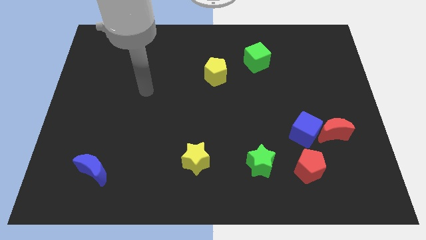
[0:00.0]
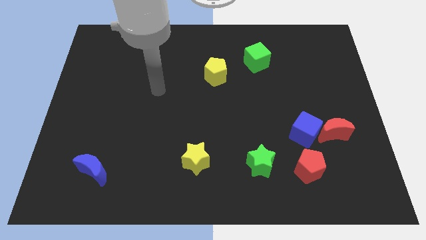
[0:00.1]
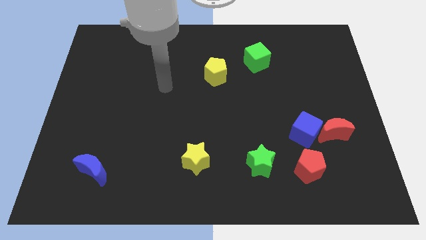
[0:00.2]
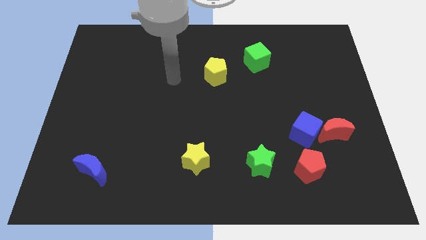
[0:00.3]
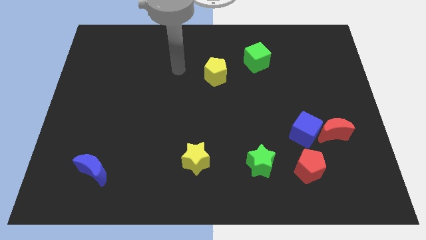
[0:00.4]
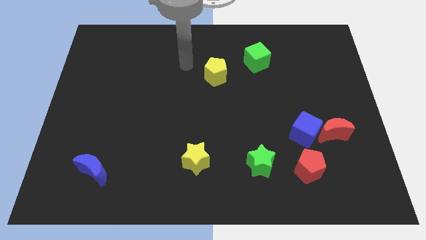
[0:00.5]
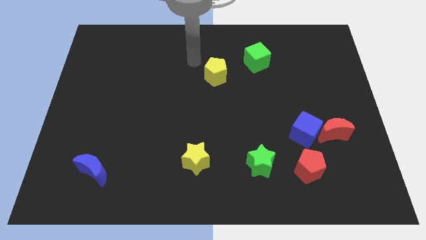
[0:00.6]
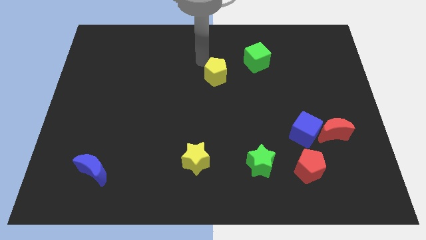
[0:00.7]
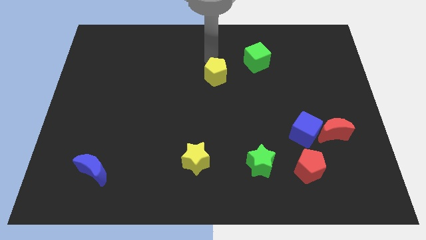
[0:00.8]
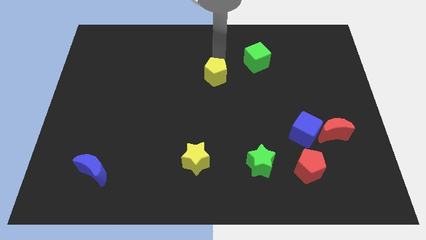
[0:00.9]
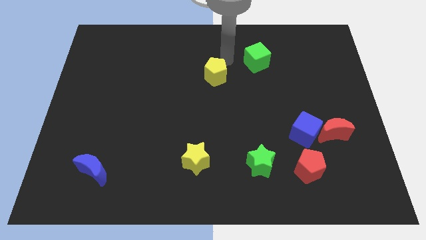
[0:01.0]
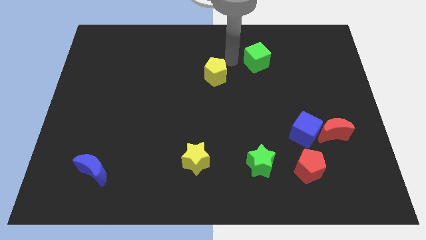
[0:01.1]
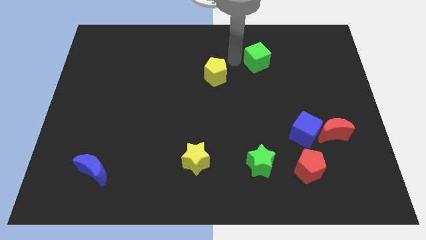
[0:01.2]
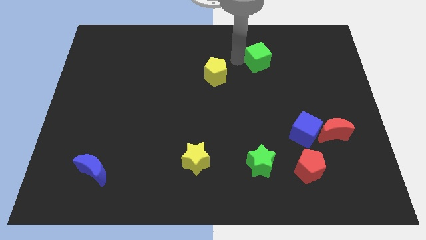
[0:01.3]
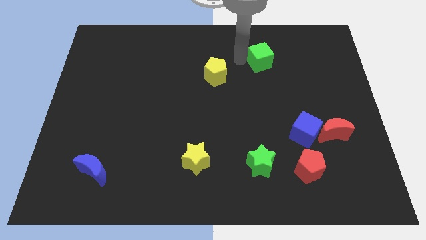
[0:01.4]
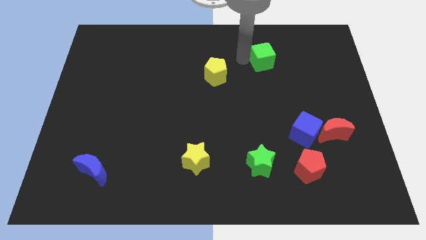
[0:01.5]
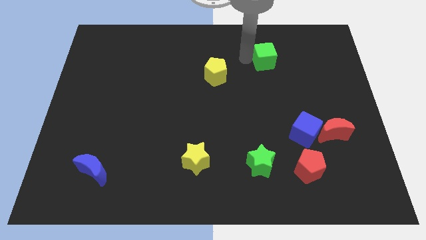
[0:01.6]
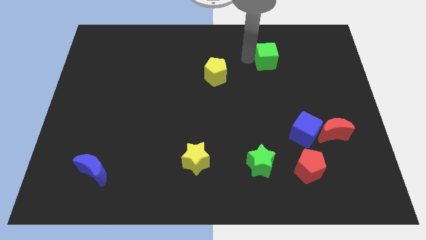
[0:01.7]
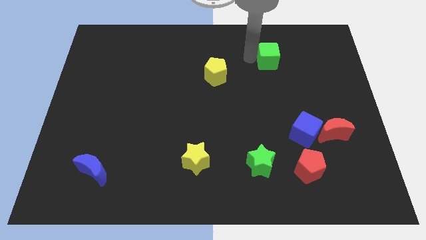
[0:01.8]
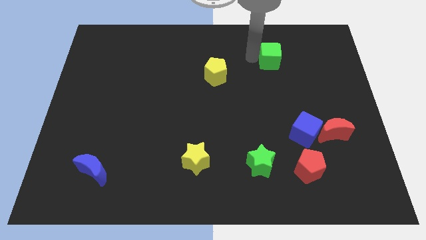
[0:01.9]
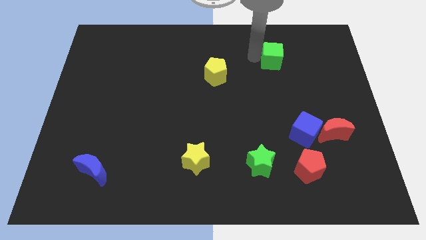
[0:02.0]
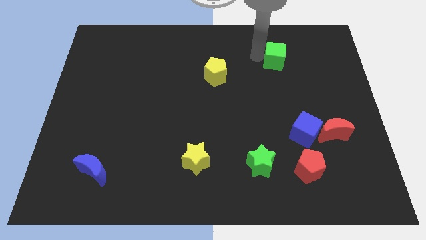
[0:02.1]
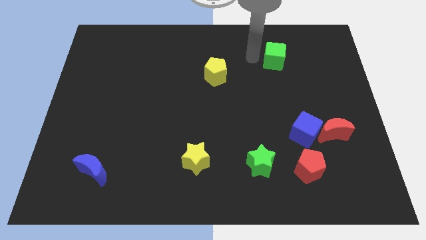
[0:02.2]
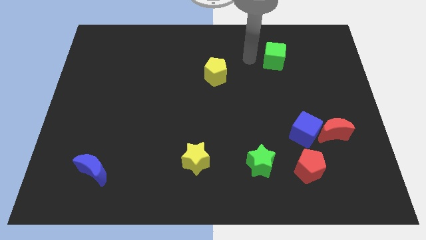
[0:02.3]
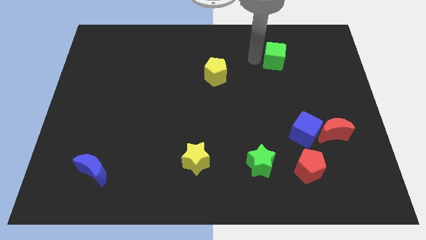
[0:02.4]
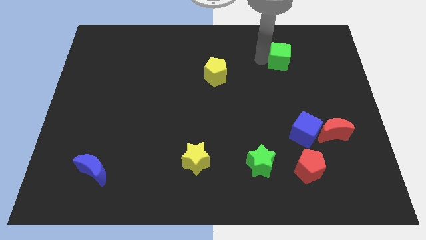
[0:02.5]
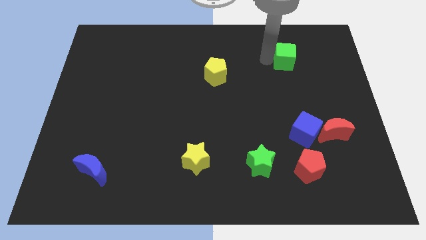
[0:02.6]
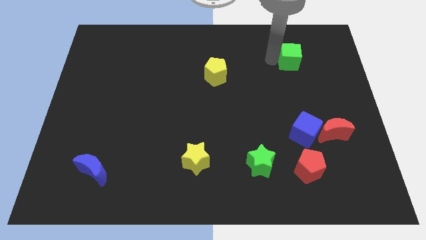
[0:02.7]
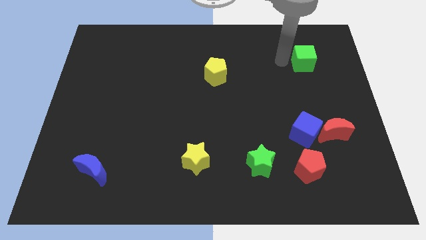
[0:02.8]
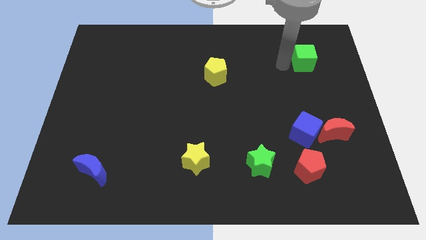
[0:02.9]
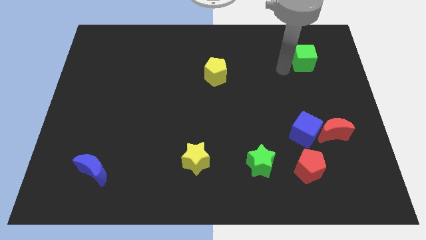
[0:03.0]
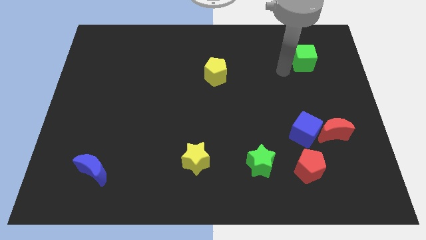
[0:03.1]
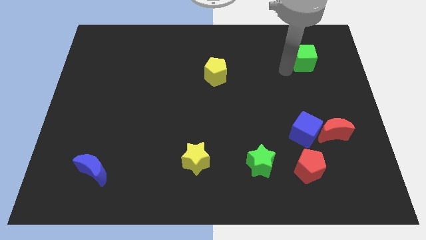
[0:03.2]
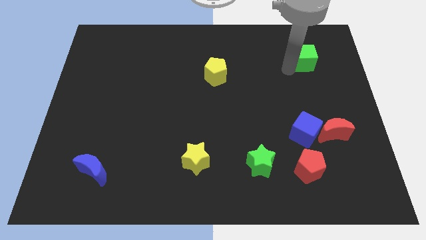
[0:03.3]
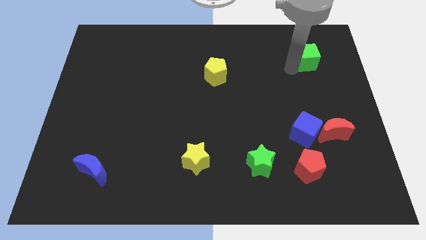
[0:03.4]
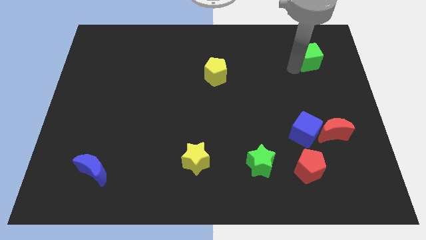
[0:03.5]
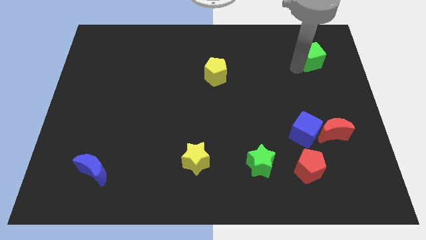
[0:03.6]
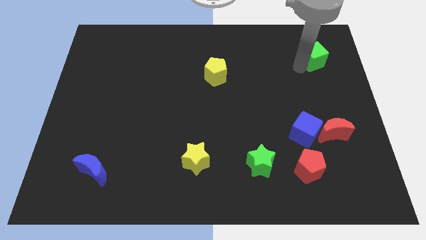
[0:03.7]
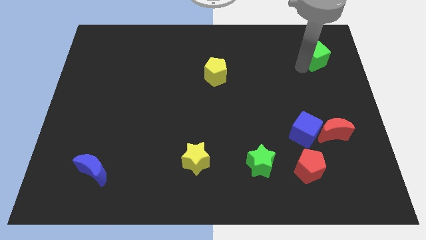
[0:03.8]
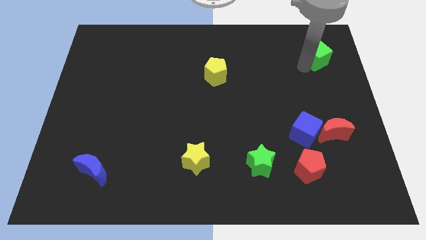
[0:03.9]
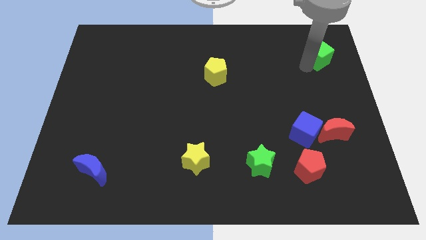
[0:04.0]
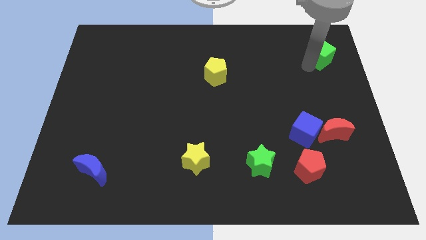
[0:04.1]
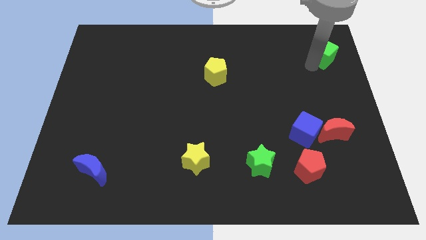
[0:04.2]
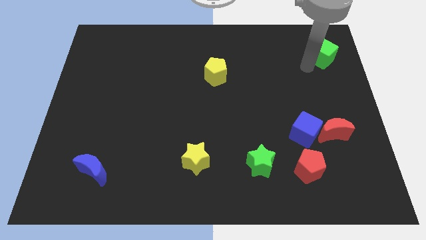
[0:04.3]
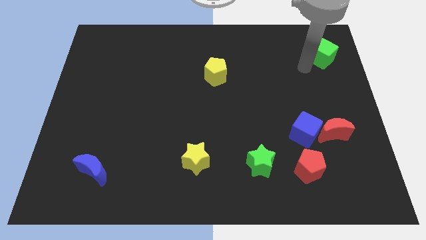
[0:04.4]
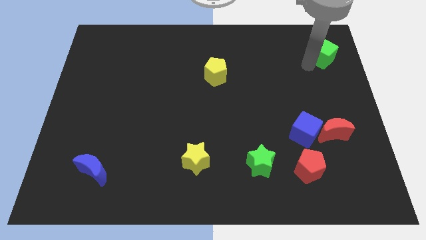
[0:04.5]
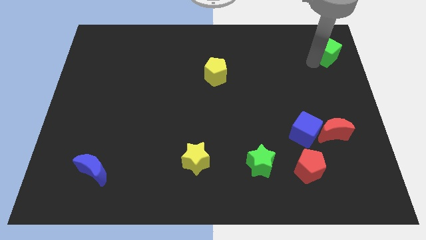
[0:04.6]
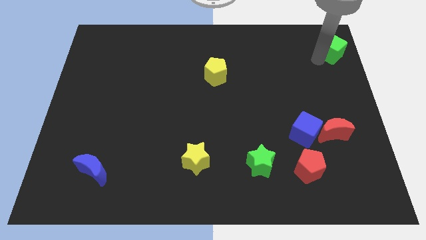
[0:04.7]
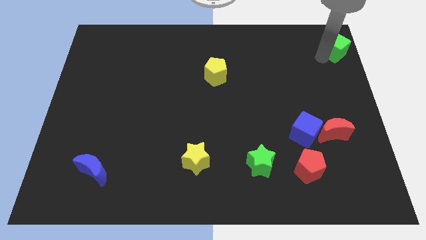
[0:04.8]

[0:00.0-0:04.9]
move the green cube to the upper right corner

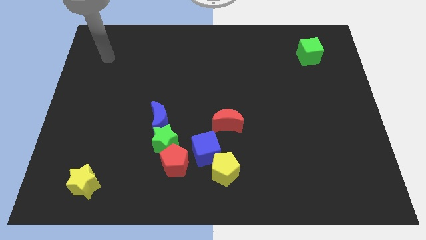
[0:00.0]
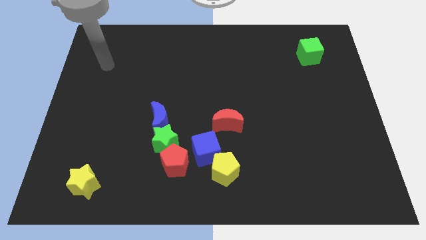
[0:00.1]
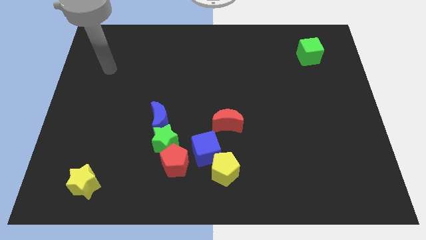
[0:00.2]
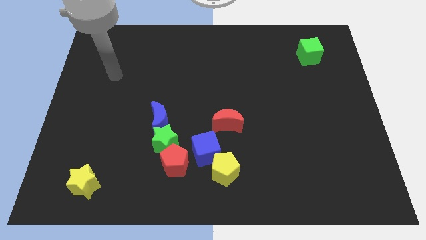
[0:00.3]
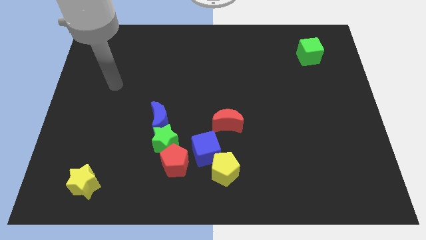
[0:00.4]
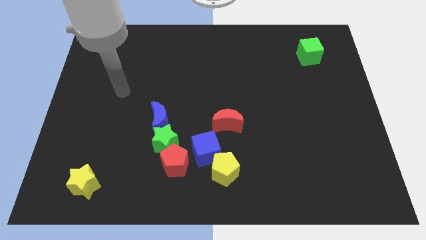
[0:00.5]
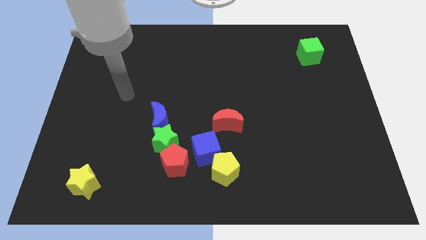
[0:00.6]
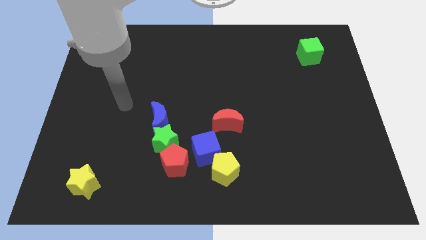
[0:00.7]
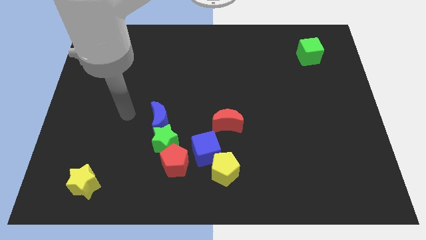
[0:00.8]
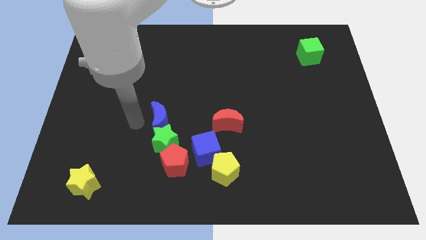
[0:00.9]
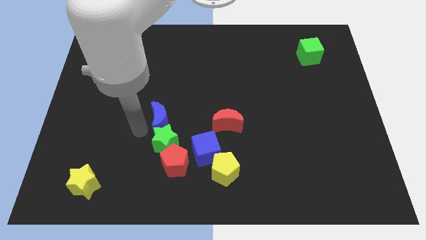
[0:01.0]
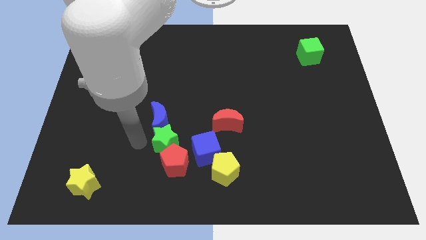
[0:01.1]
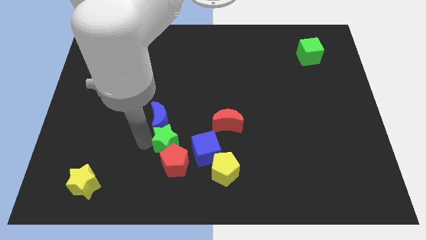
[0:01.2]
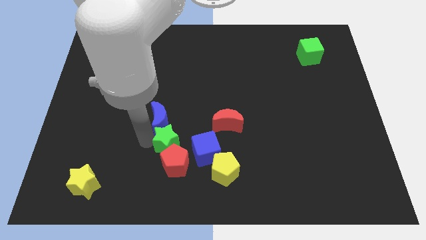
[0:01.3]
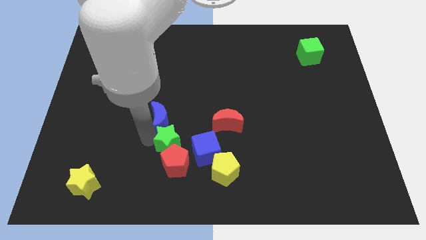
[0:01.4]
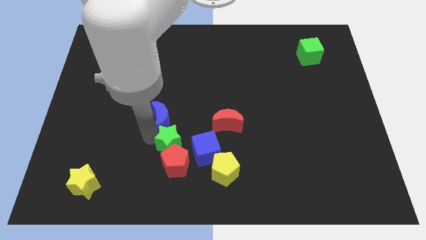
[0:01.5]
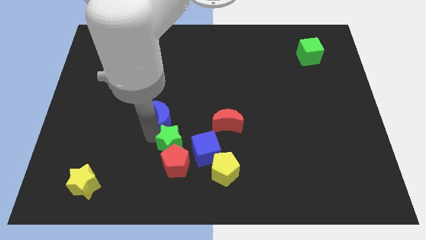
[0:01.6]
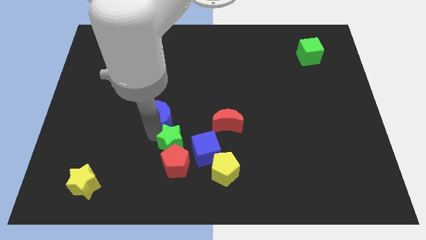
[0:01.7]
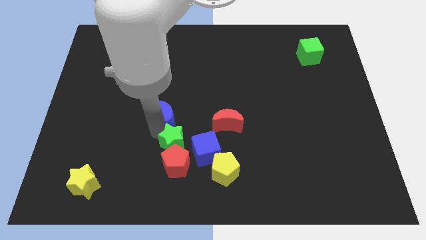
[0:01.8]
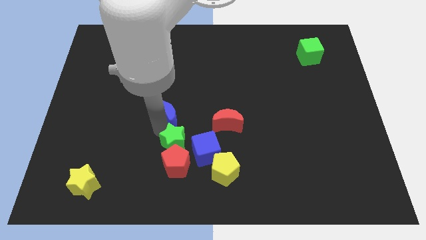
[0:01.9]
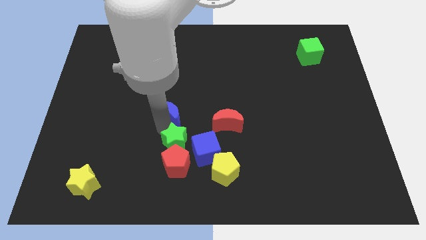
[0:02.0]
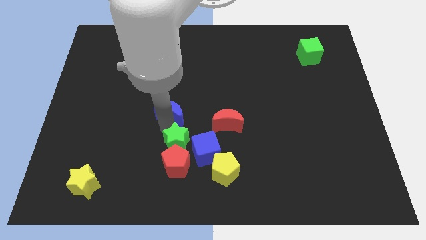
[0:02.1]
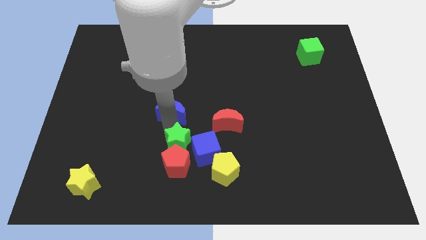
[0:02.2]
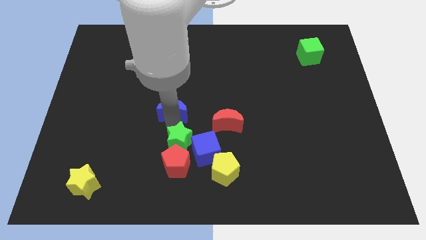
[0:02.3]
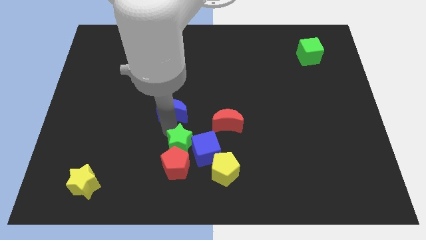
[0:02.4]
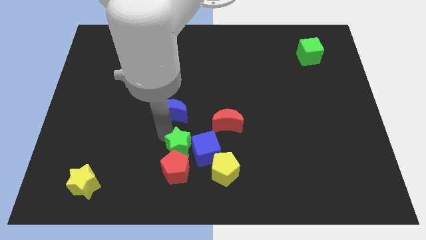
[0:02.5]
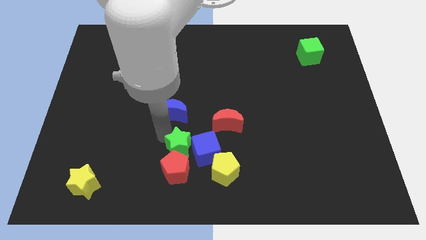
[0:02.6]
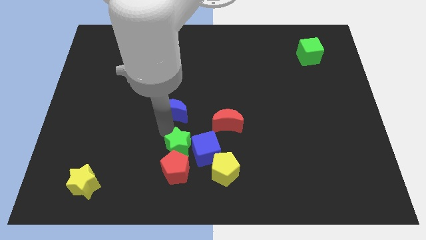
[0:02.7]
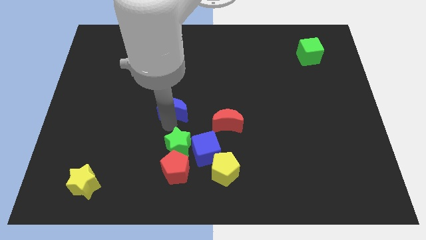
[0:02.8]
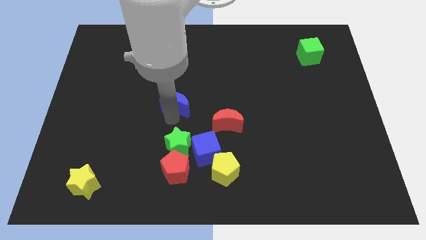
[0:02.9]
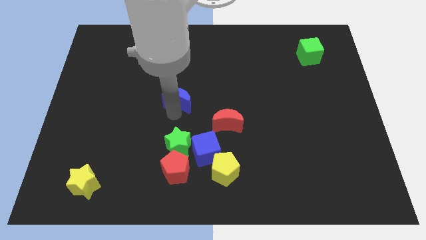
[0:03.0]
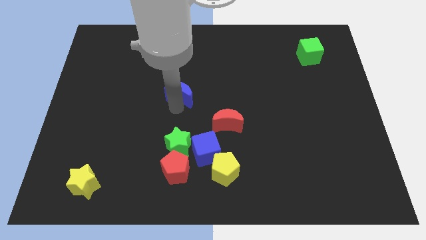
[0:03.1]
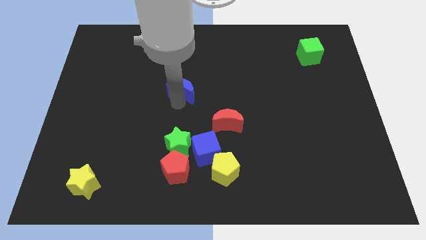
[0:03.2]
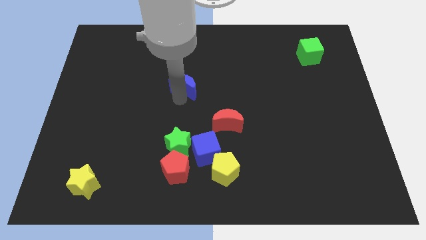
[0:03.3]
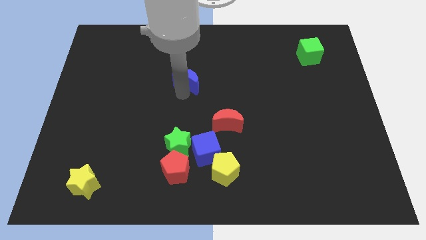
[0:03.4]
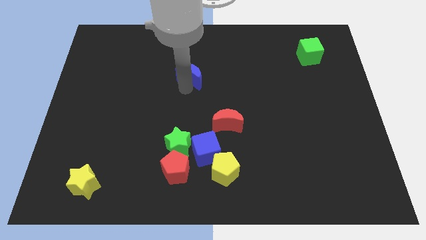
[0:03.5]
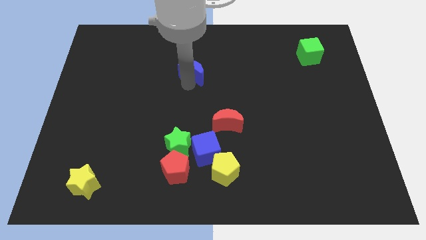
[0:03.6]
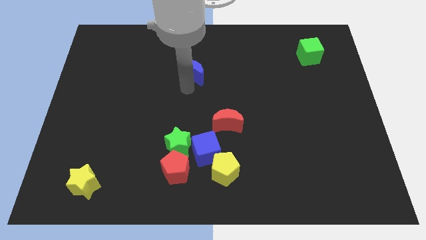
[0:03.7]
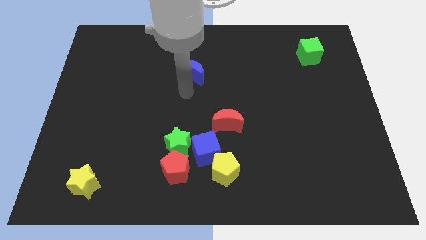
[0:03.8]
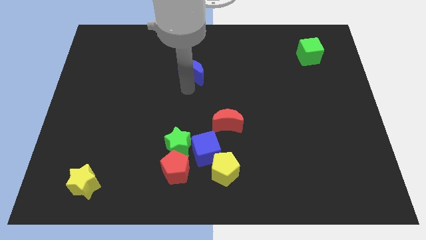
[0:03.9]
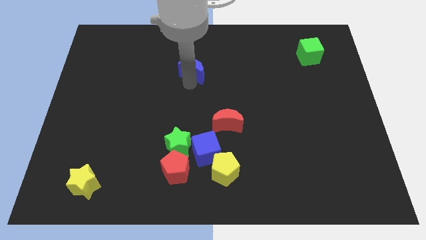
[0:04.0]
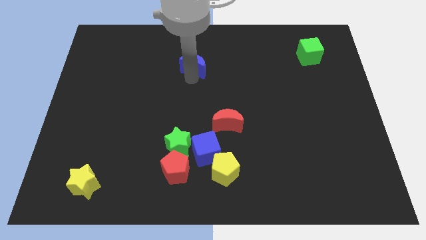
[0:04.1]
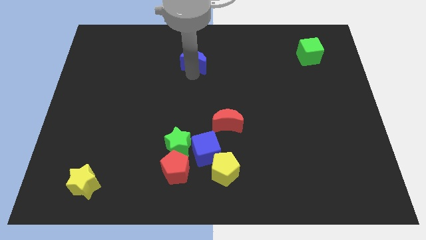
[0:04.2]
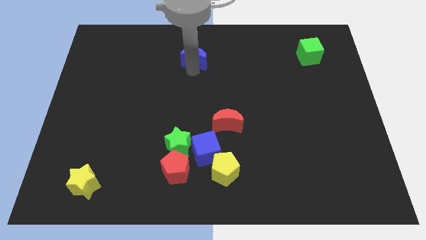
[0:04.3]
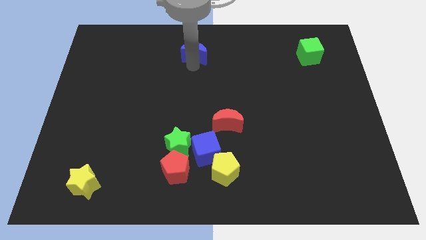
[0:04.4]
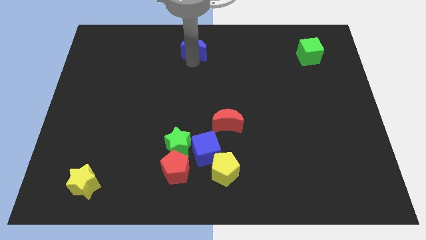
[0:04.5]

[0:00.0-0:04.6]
move the blue moon to the top side
